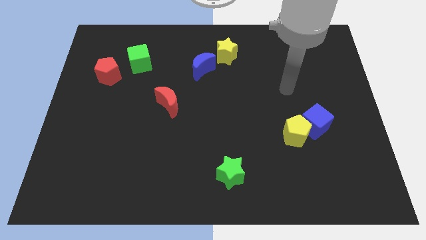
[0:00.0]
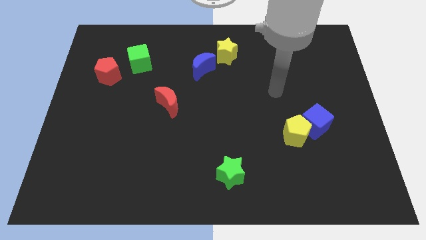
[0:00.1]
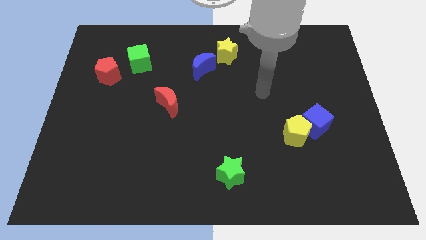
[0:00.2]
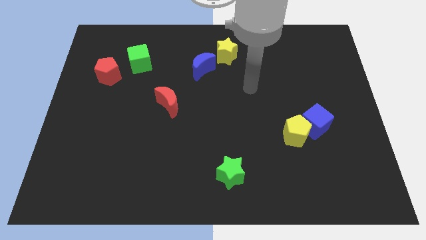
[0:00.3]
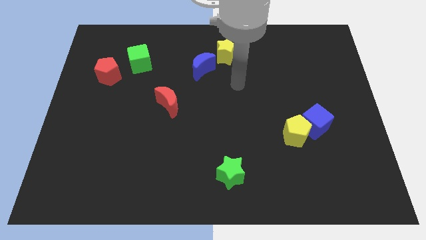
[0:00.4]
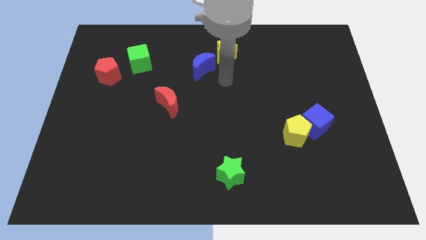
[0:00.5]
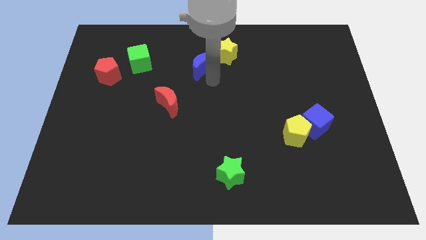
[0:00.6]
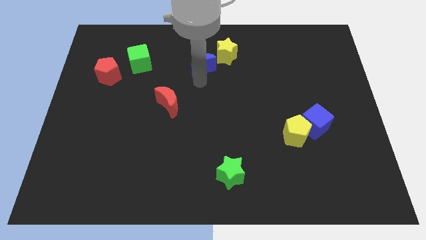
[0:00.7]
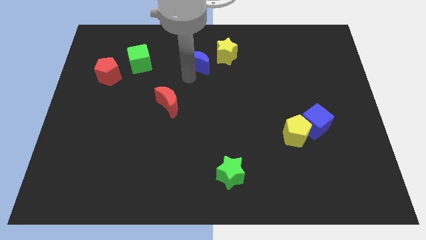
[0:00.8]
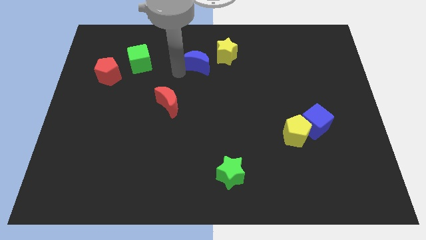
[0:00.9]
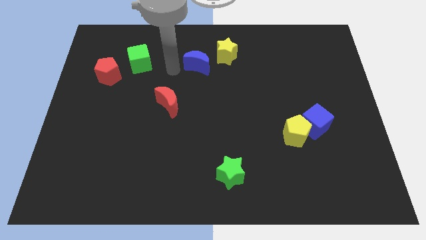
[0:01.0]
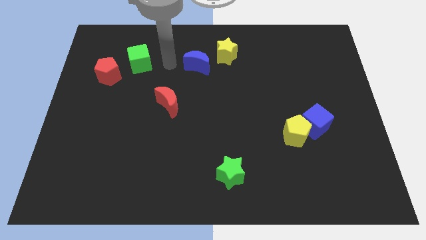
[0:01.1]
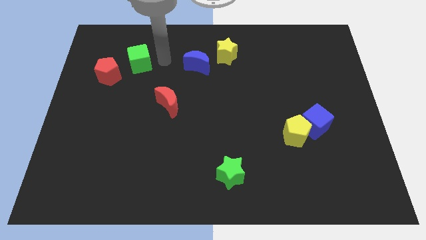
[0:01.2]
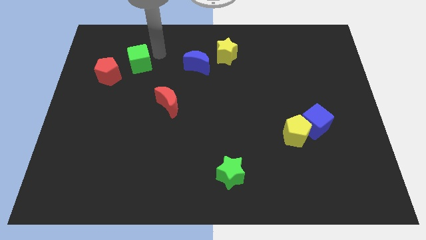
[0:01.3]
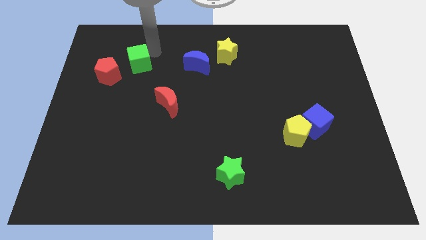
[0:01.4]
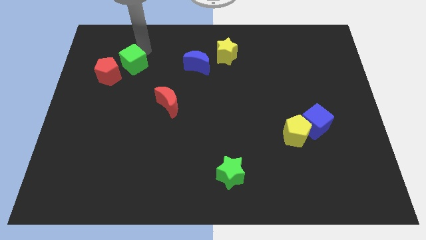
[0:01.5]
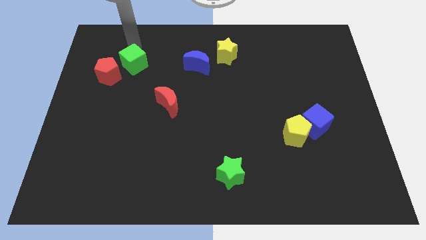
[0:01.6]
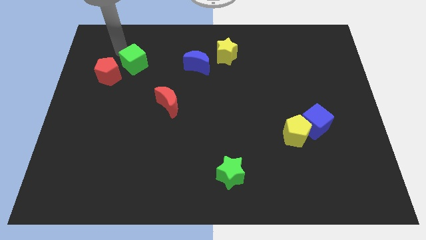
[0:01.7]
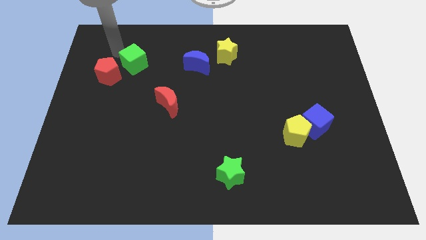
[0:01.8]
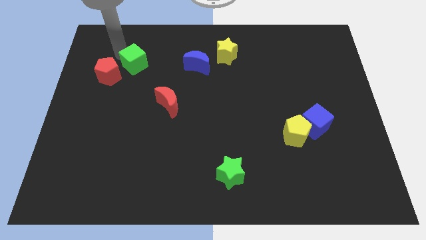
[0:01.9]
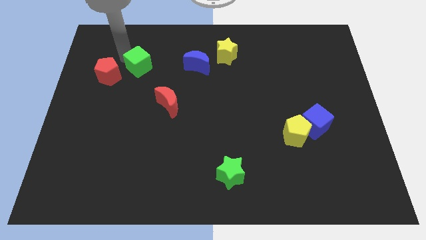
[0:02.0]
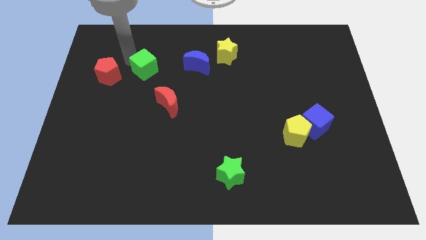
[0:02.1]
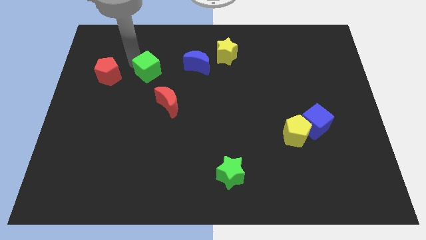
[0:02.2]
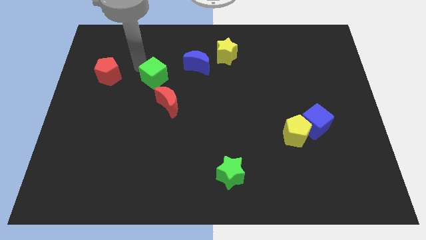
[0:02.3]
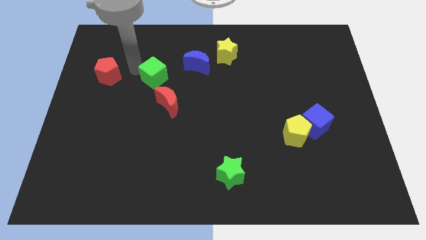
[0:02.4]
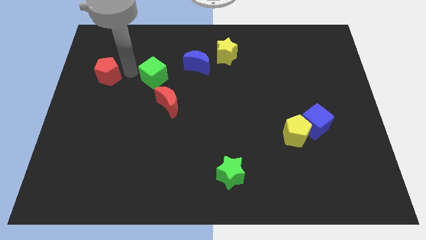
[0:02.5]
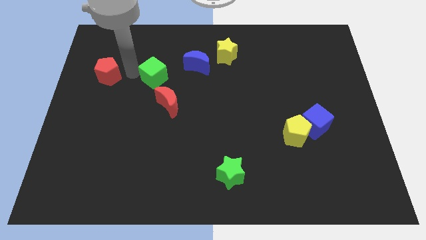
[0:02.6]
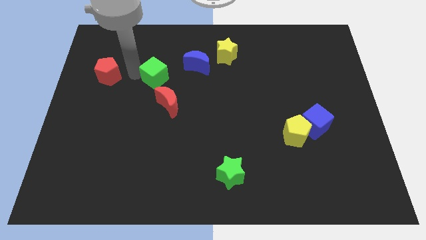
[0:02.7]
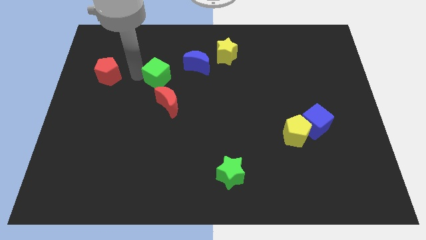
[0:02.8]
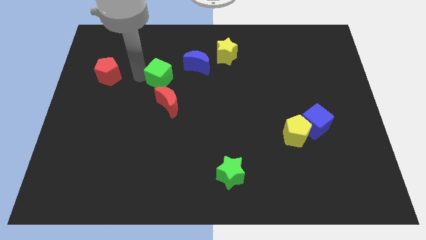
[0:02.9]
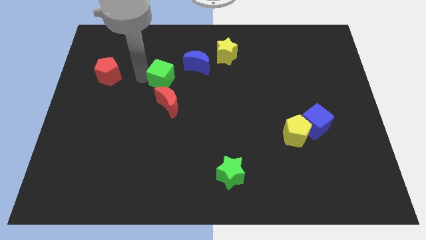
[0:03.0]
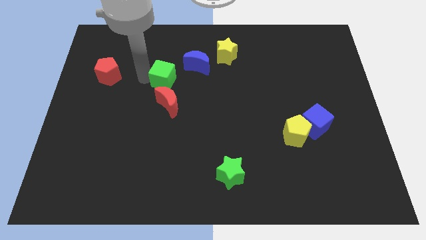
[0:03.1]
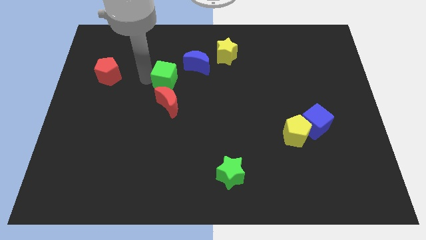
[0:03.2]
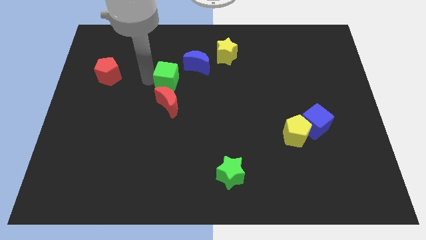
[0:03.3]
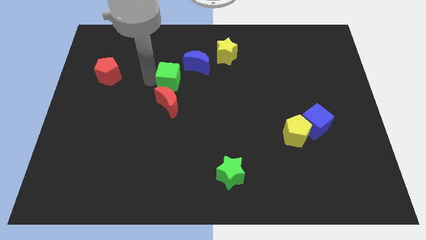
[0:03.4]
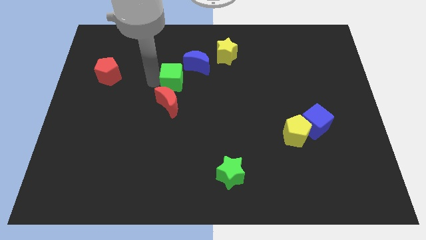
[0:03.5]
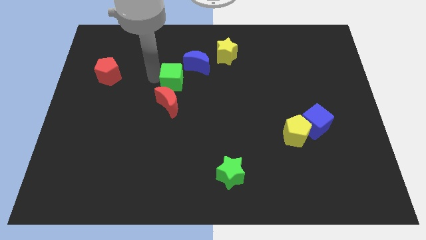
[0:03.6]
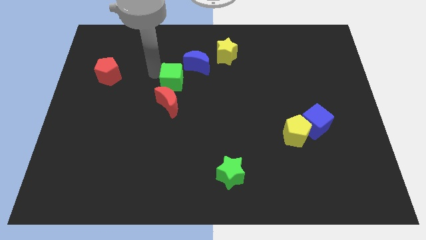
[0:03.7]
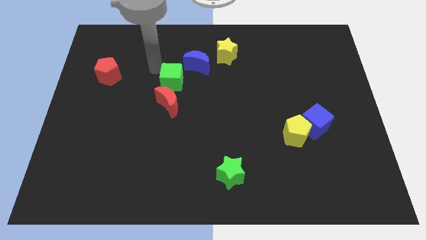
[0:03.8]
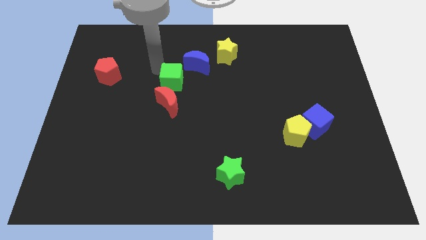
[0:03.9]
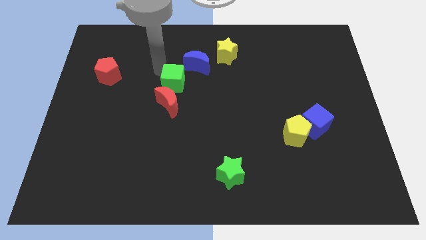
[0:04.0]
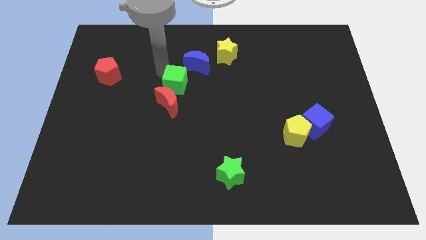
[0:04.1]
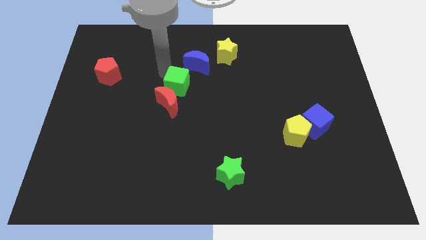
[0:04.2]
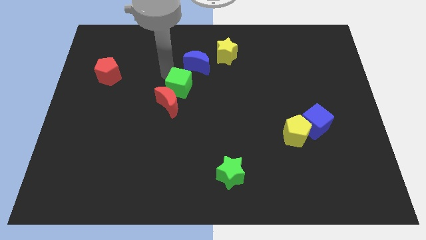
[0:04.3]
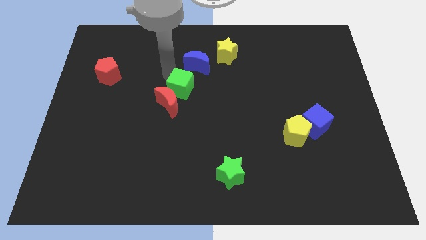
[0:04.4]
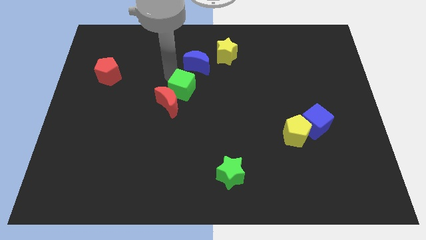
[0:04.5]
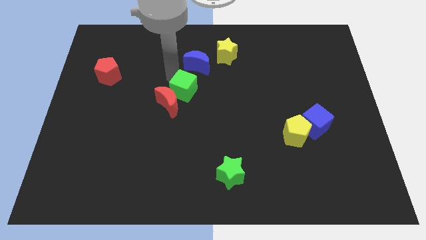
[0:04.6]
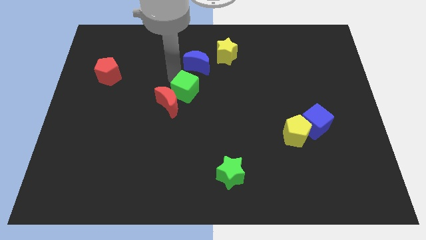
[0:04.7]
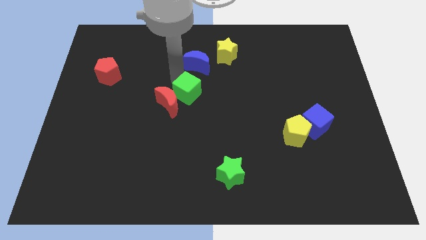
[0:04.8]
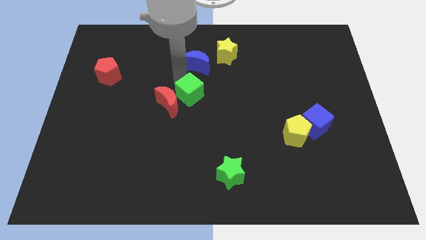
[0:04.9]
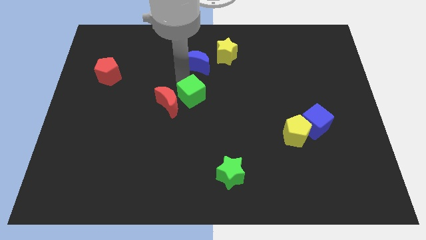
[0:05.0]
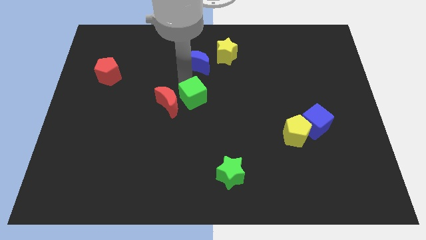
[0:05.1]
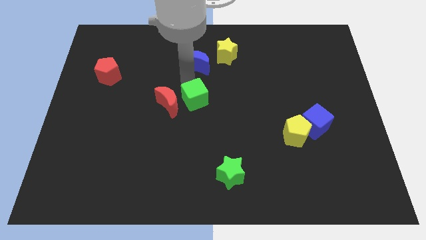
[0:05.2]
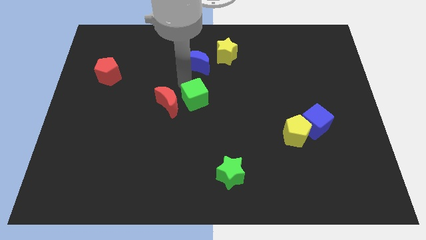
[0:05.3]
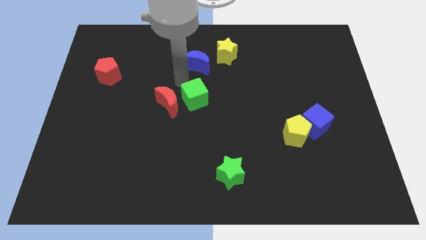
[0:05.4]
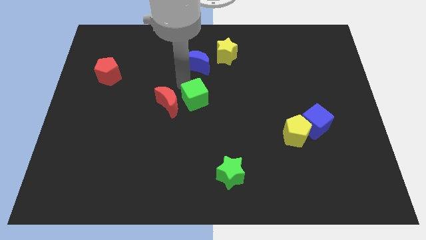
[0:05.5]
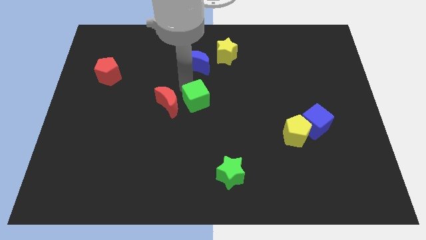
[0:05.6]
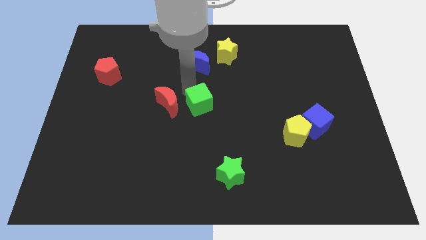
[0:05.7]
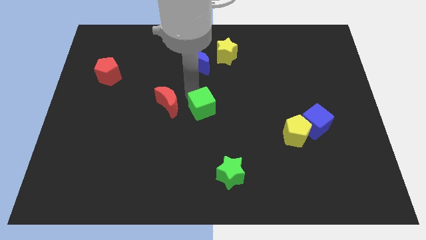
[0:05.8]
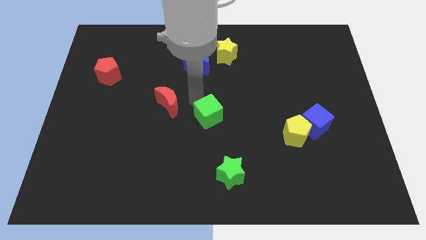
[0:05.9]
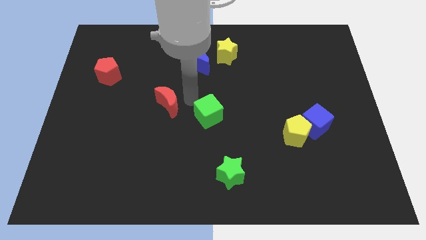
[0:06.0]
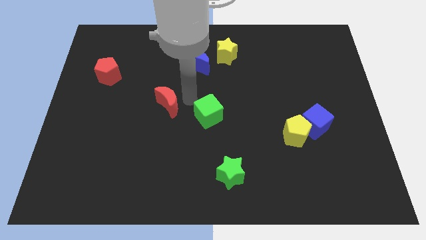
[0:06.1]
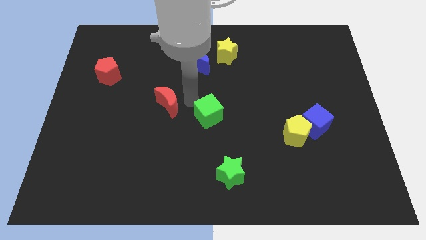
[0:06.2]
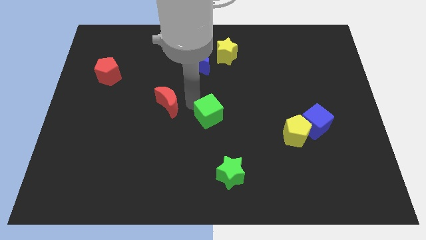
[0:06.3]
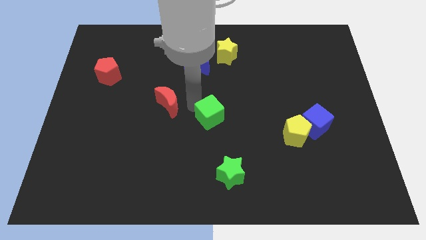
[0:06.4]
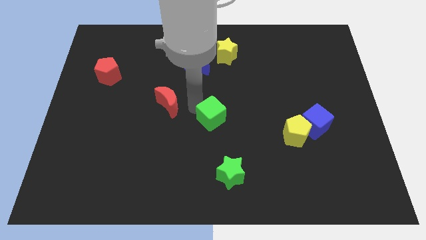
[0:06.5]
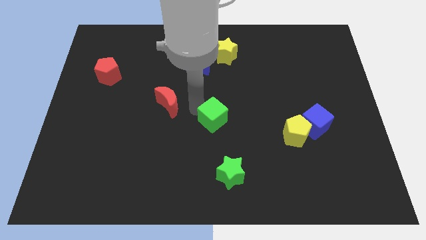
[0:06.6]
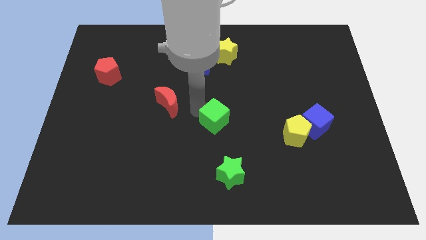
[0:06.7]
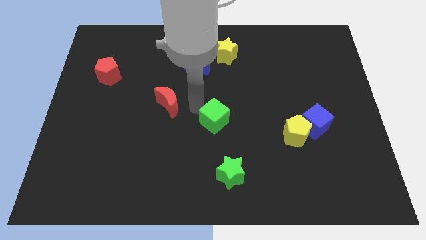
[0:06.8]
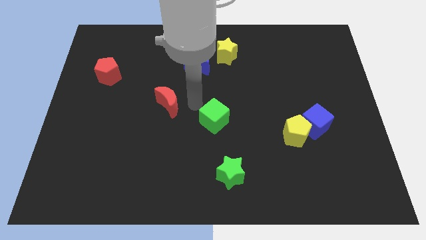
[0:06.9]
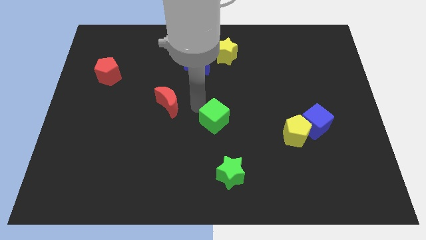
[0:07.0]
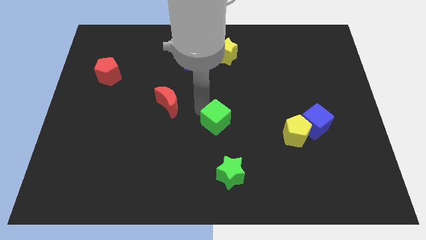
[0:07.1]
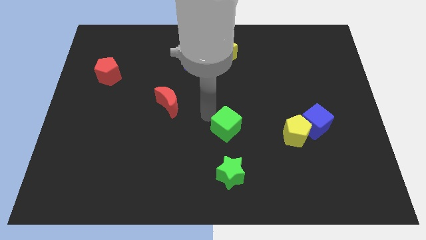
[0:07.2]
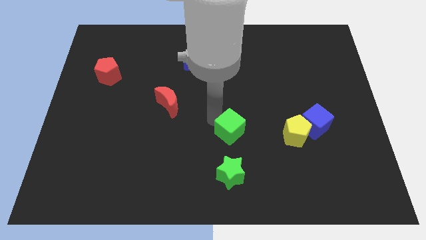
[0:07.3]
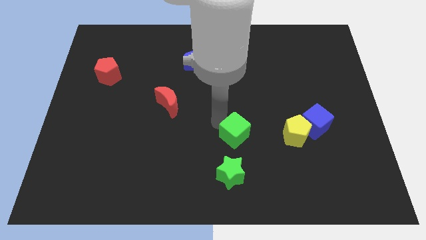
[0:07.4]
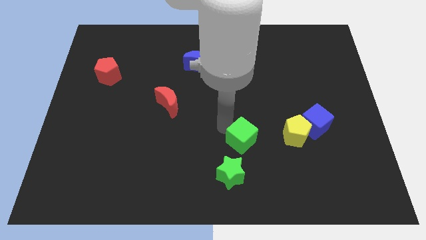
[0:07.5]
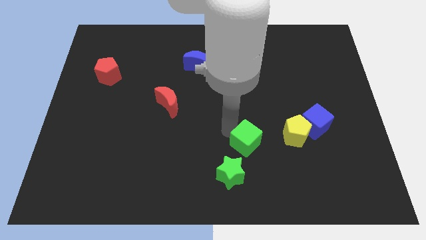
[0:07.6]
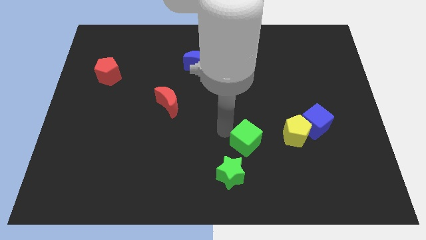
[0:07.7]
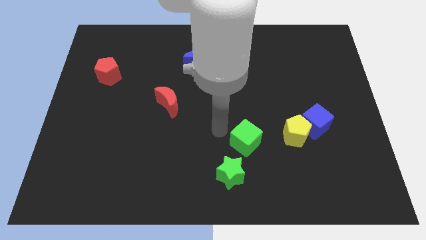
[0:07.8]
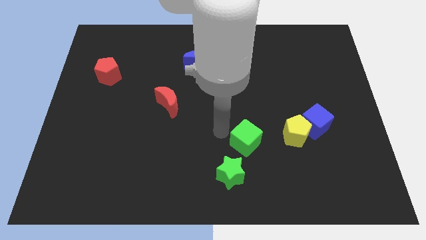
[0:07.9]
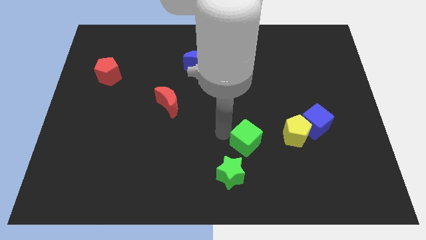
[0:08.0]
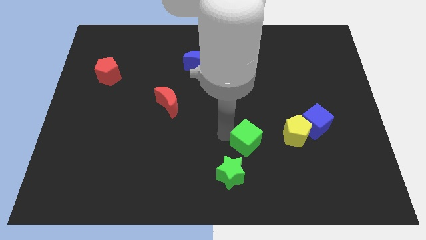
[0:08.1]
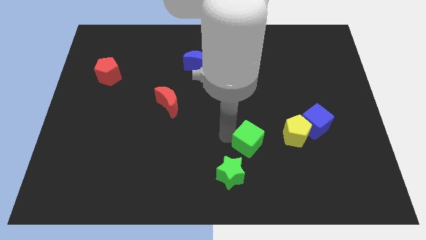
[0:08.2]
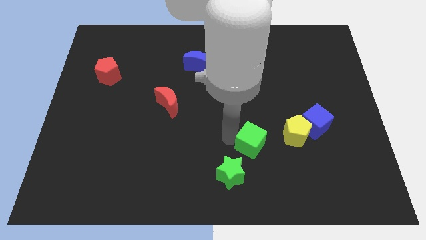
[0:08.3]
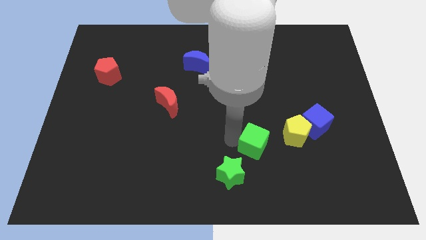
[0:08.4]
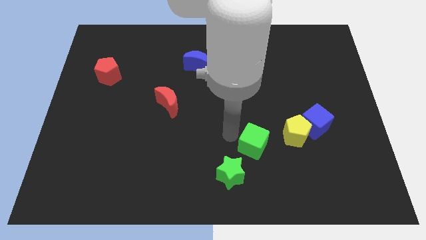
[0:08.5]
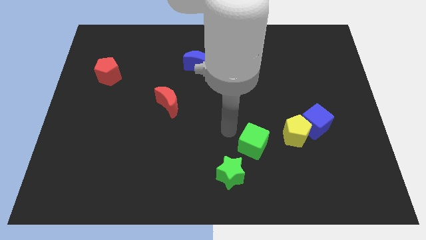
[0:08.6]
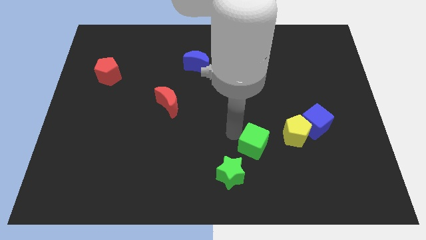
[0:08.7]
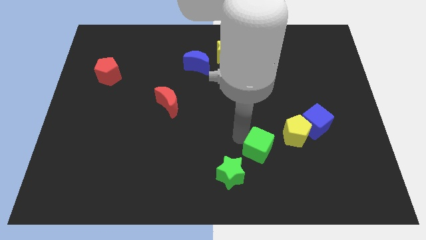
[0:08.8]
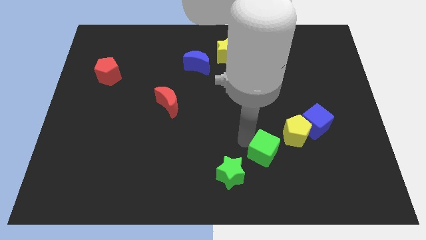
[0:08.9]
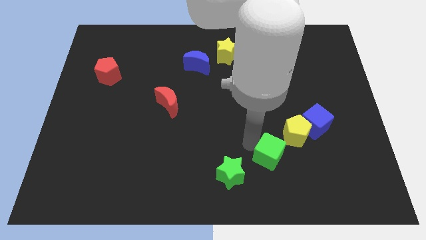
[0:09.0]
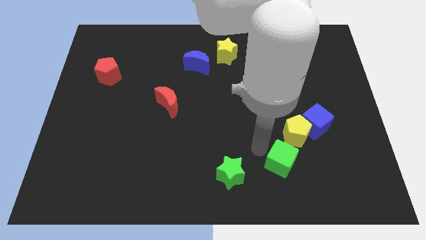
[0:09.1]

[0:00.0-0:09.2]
put the green cube to the bottom of the yellow pentagon
